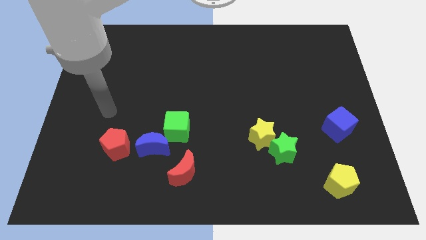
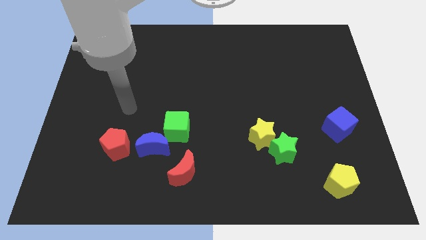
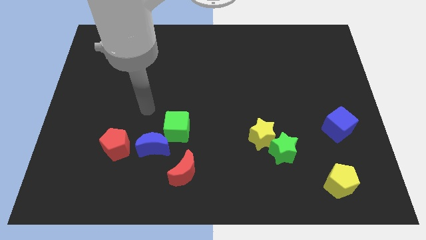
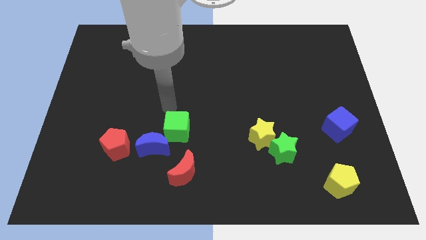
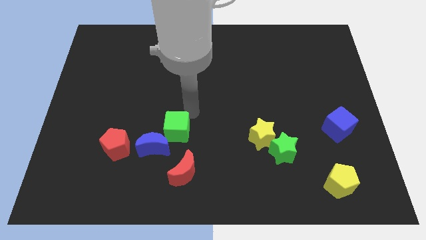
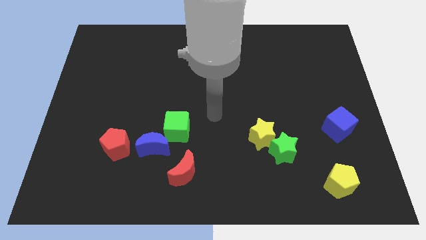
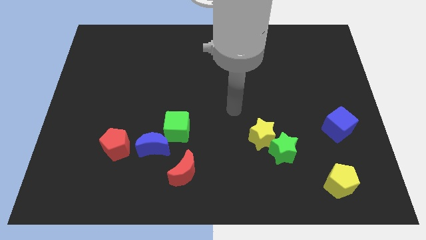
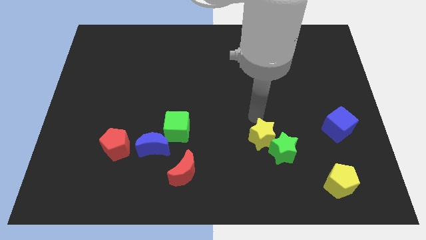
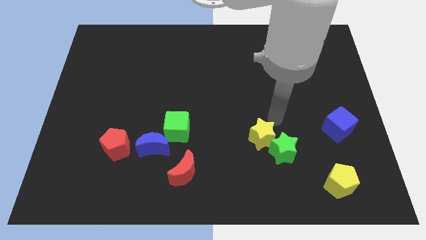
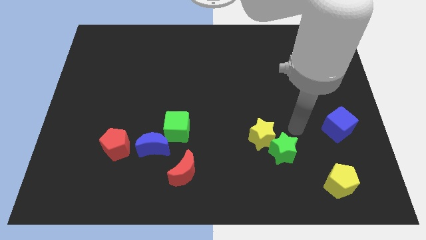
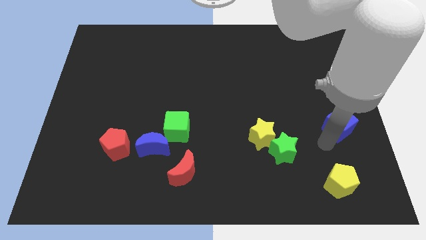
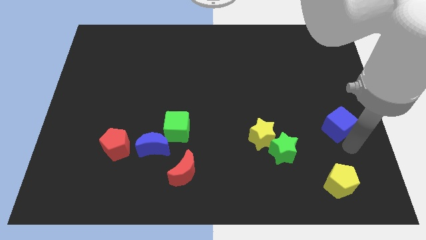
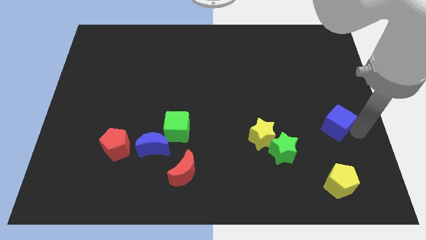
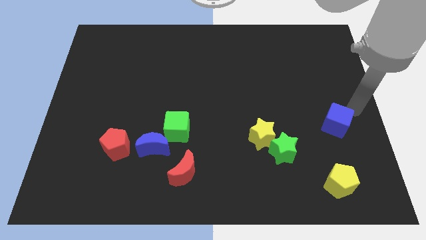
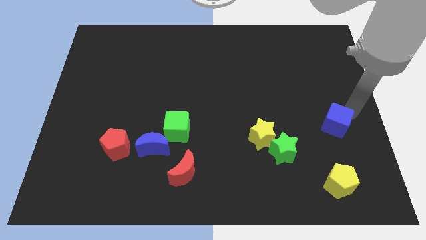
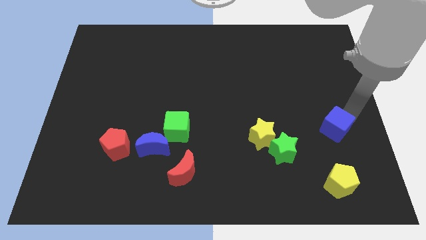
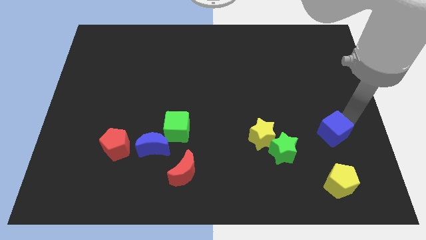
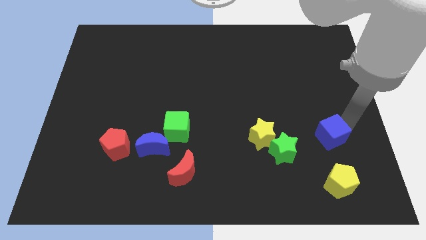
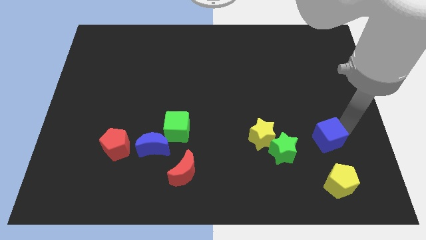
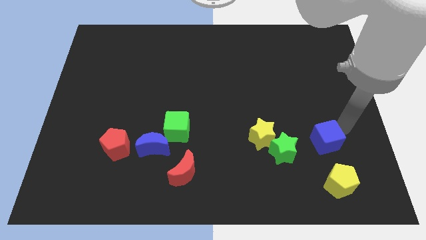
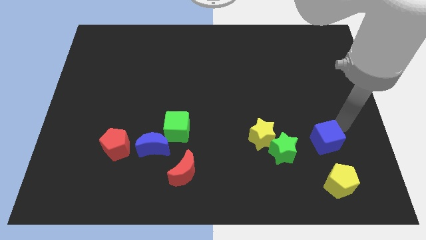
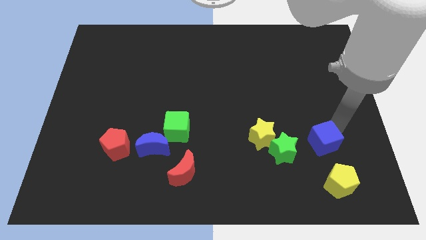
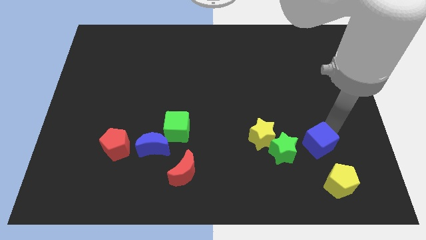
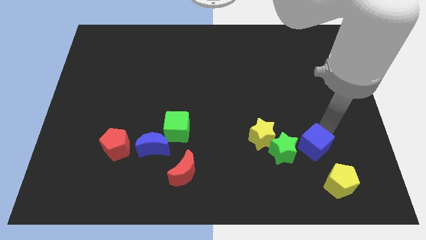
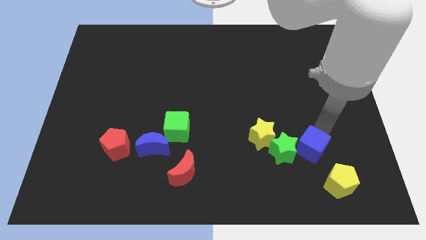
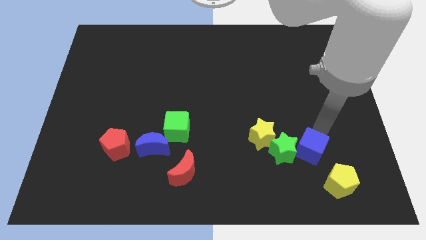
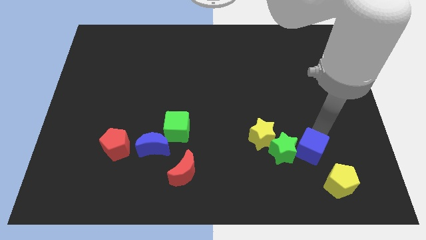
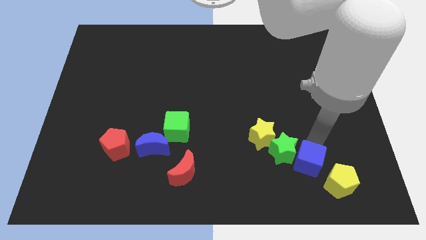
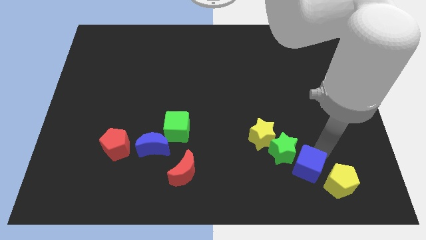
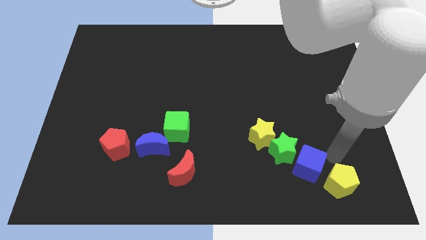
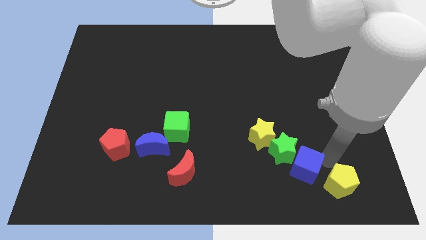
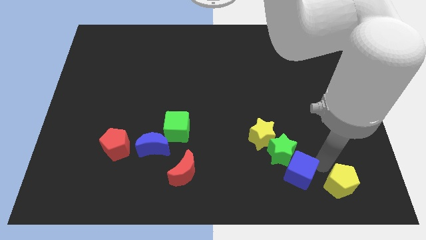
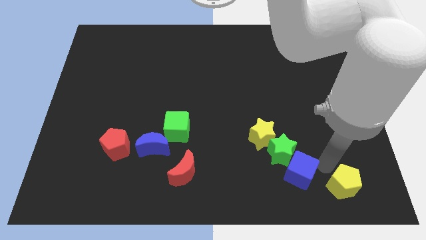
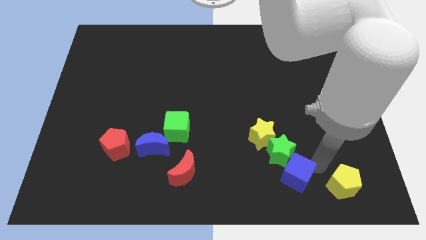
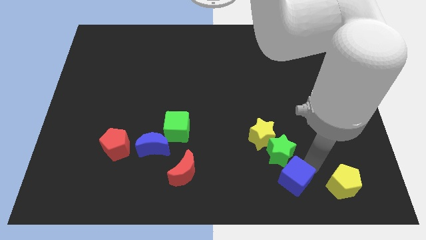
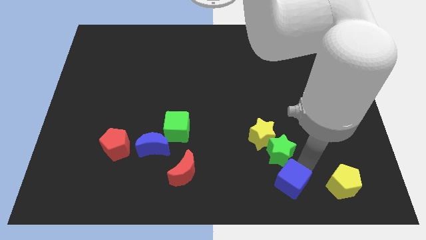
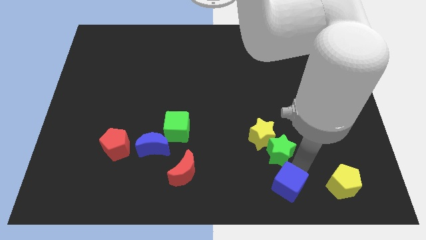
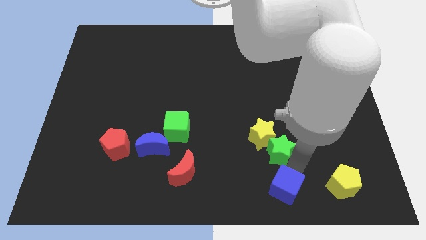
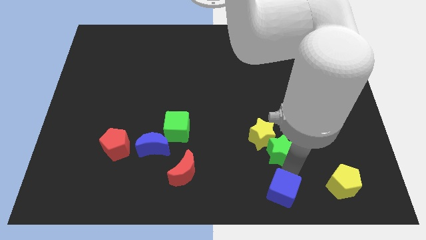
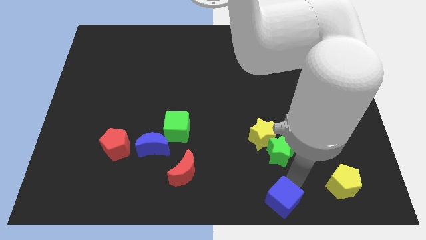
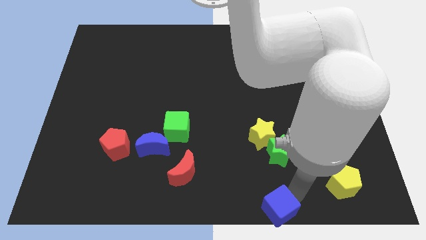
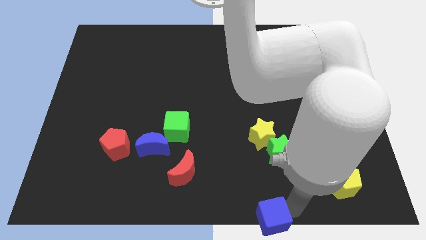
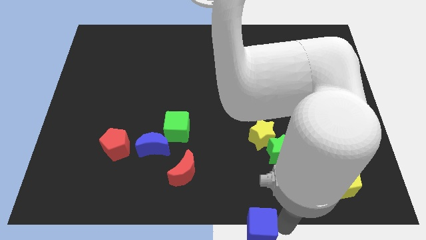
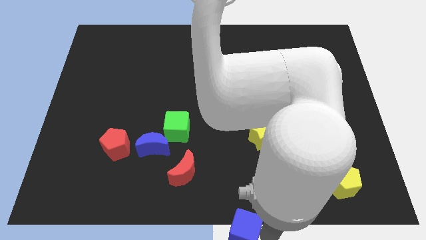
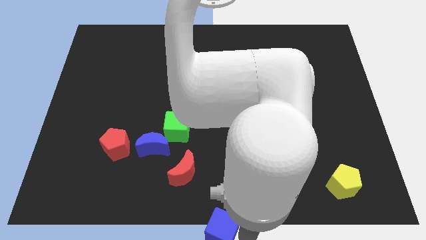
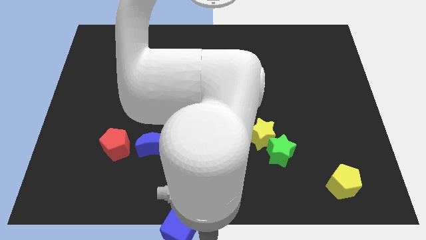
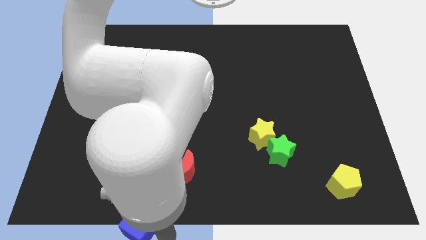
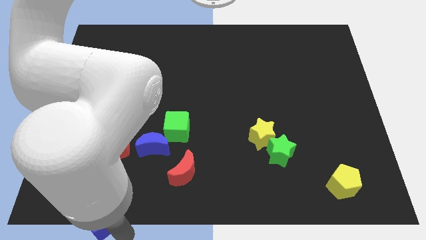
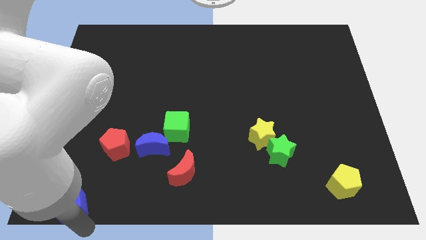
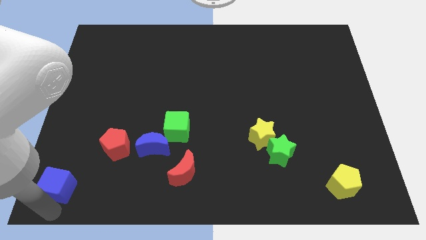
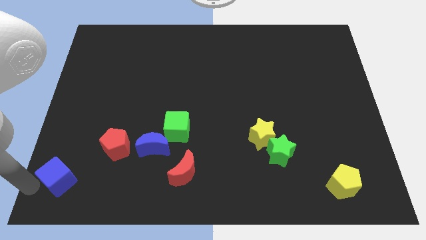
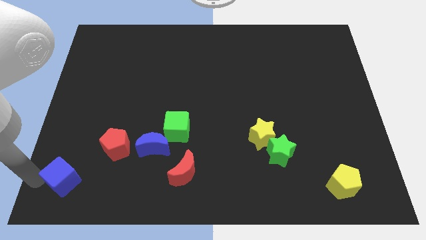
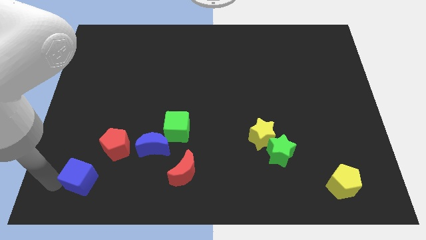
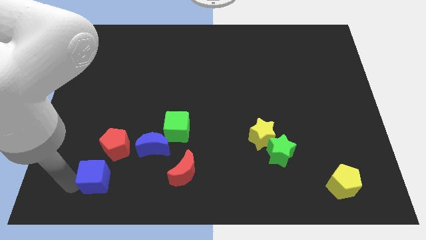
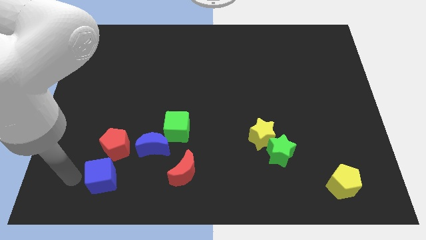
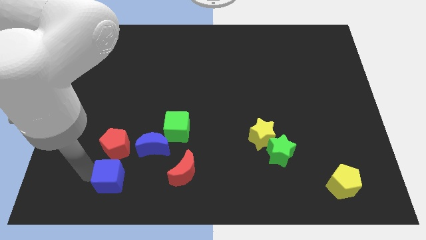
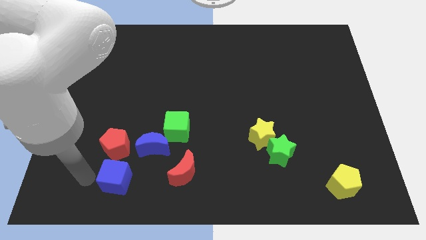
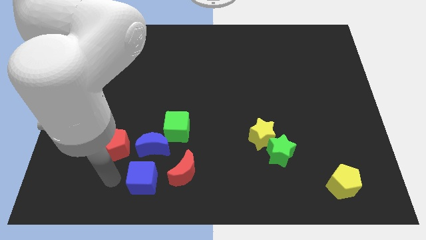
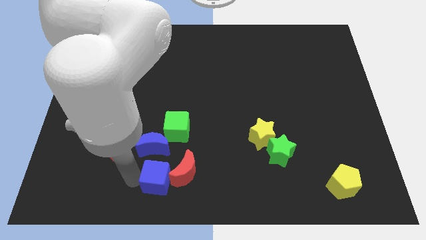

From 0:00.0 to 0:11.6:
slide the blue cube to the red moon

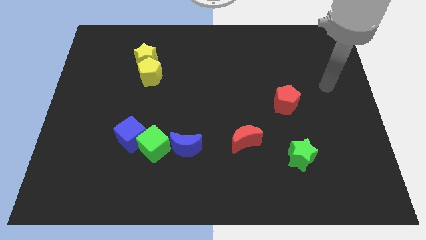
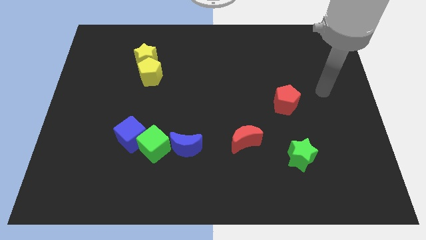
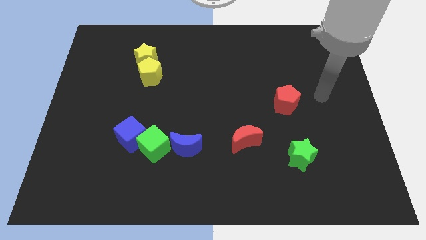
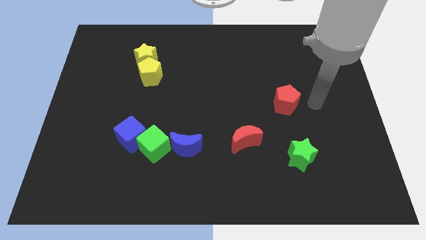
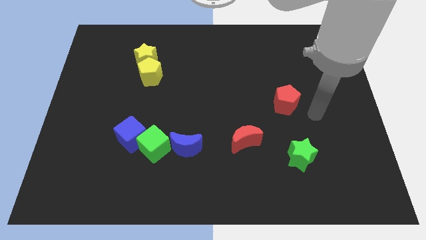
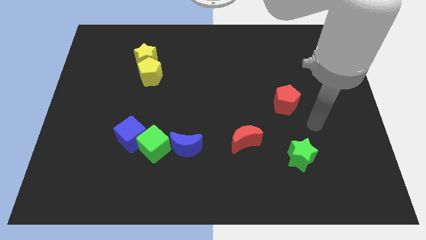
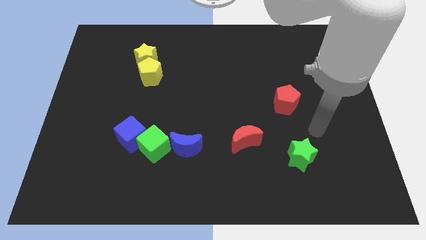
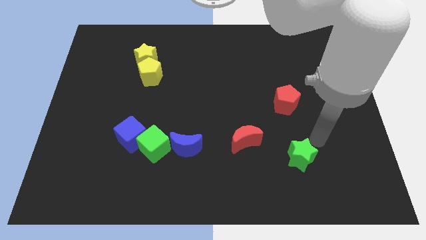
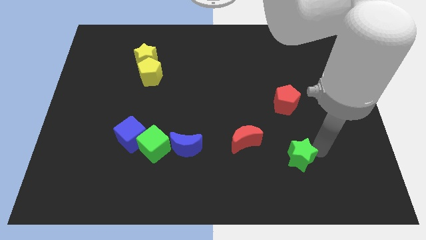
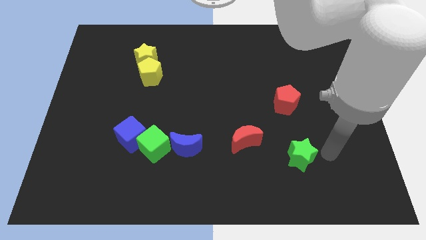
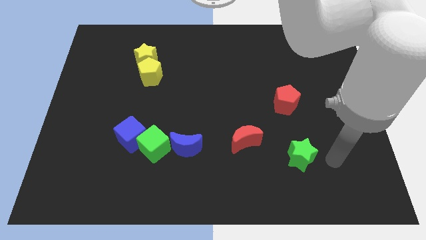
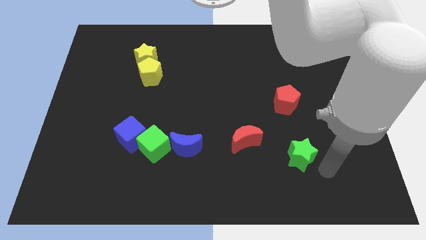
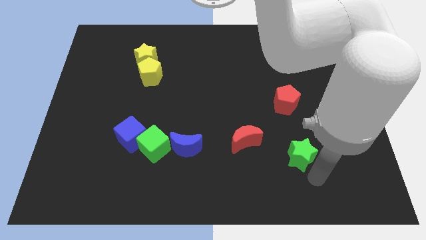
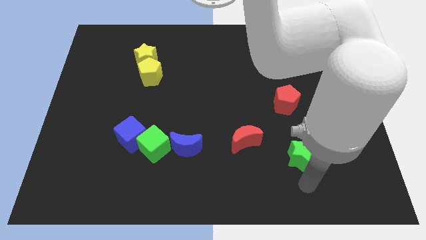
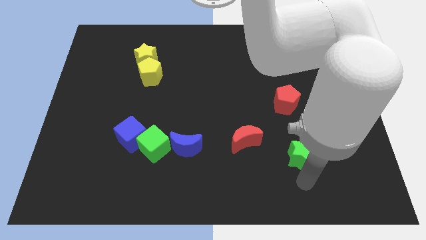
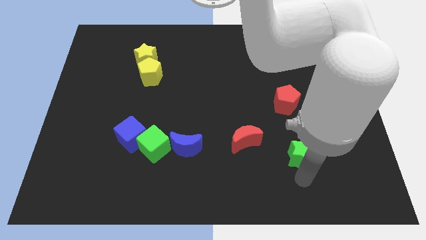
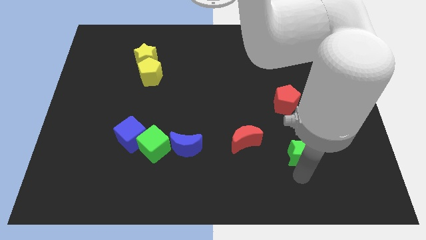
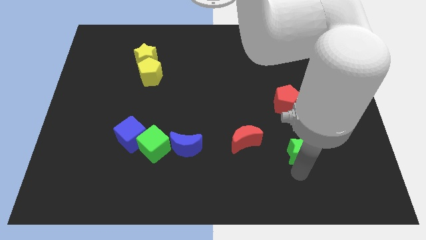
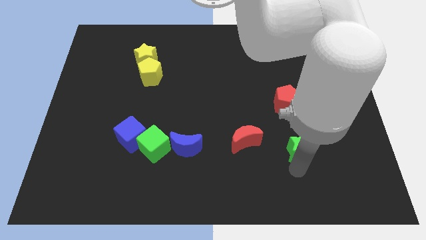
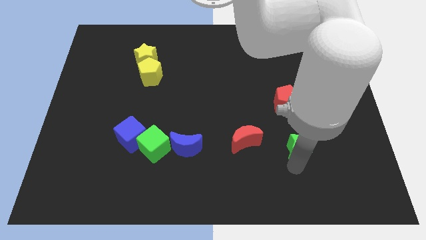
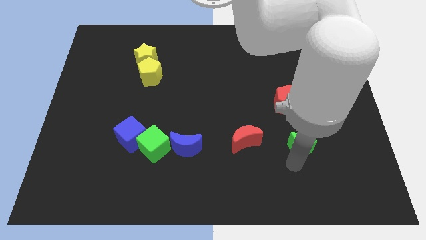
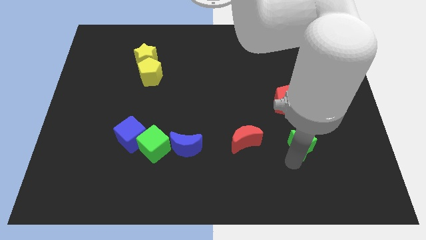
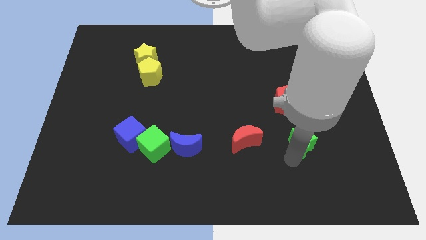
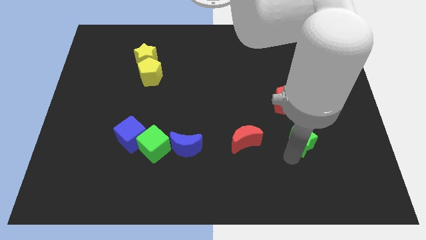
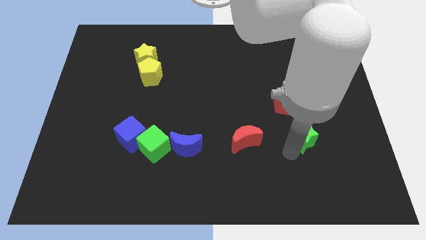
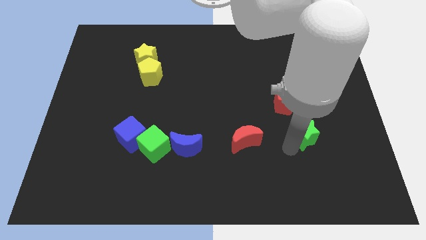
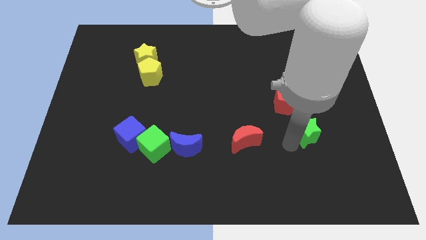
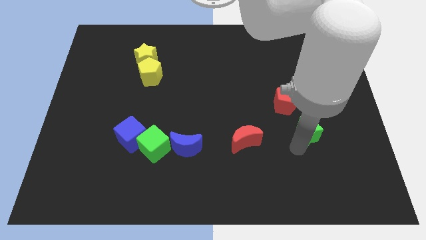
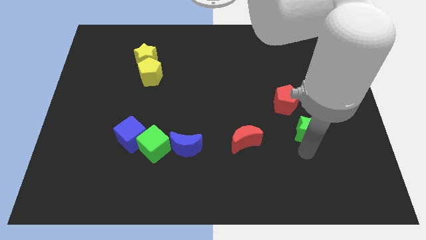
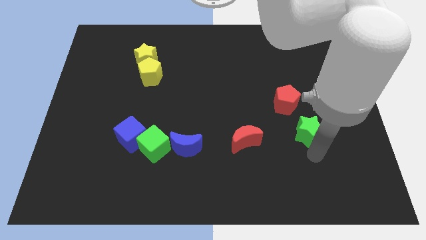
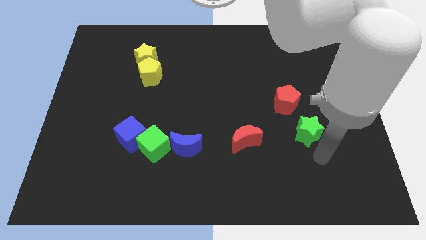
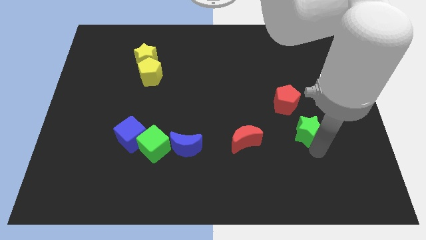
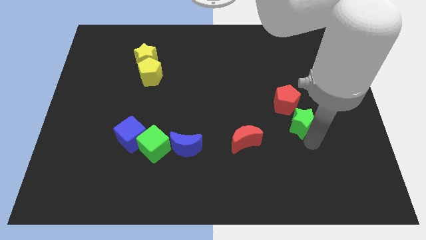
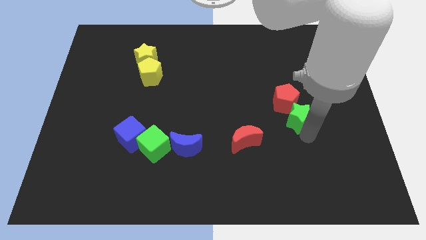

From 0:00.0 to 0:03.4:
slide the green star to the red pentagon
